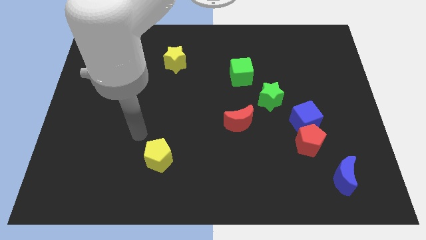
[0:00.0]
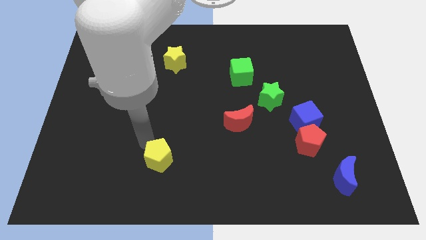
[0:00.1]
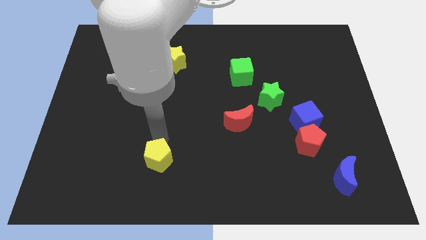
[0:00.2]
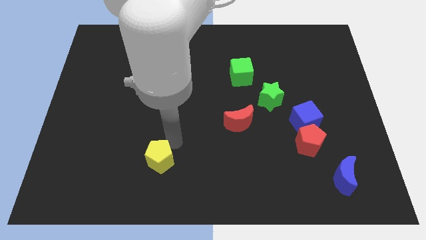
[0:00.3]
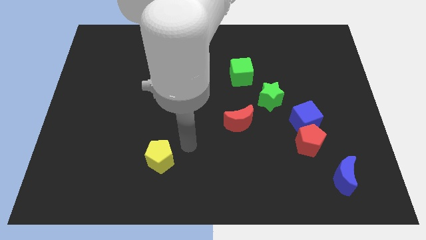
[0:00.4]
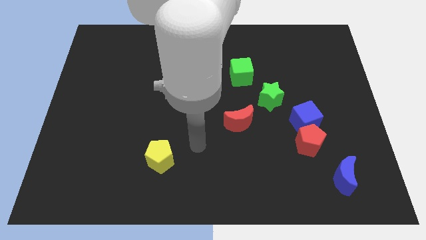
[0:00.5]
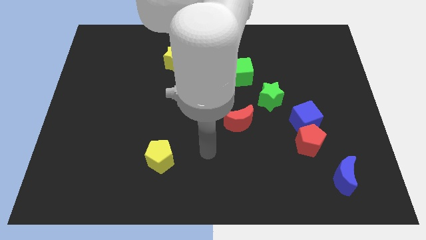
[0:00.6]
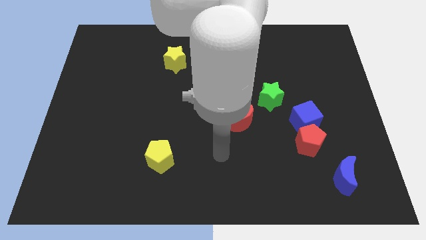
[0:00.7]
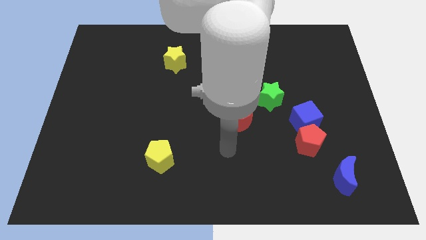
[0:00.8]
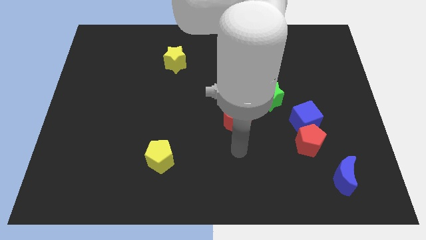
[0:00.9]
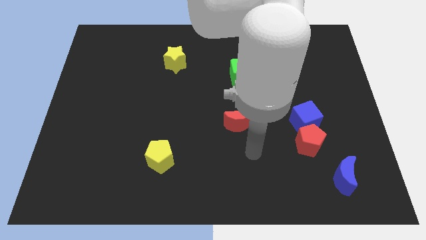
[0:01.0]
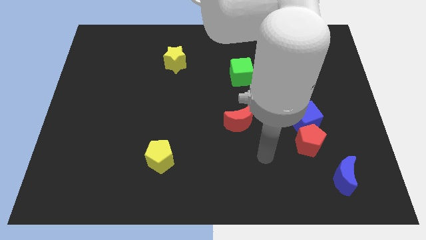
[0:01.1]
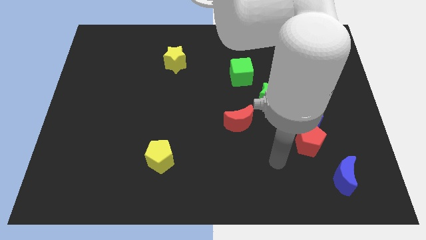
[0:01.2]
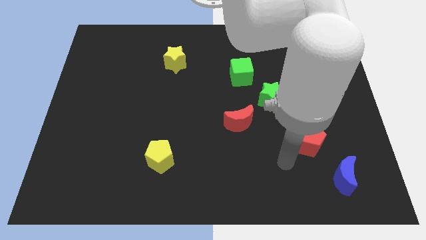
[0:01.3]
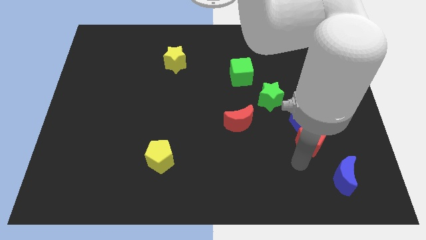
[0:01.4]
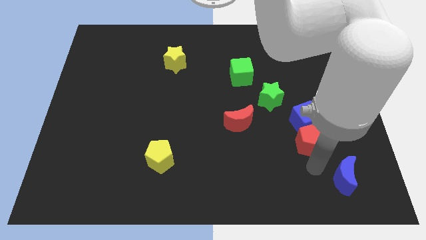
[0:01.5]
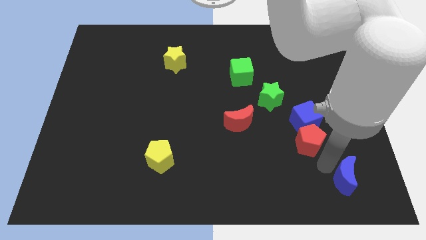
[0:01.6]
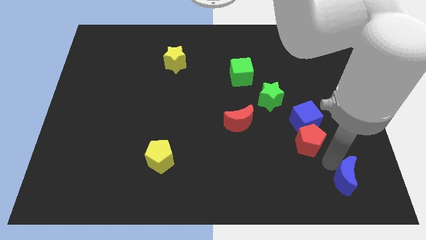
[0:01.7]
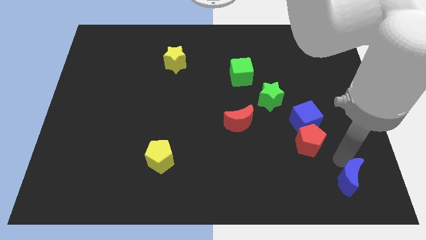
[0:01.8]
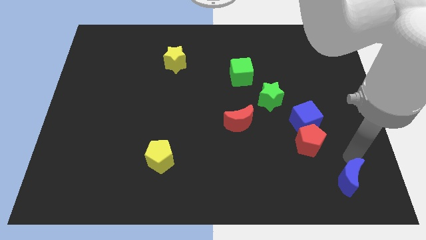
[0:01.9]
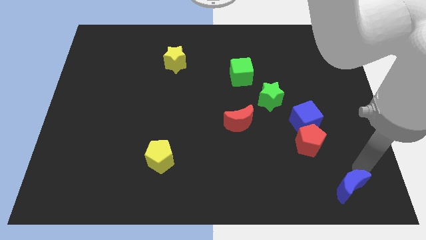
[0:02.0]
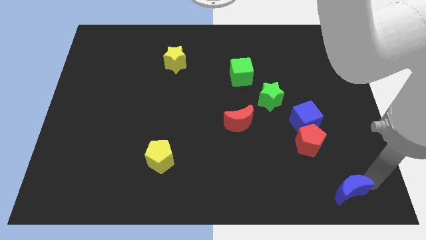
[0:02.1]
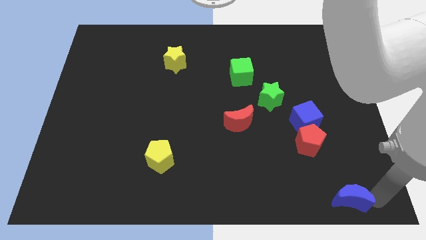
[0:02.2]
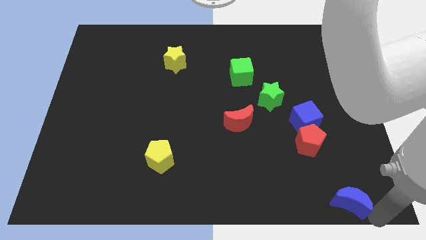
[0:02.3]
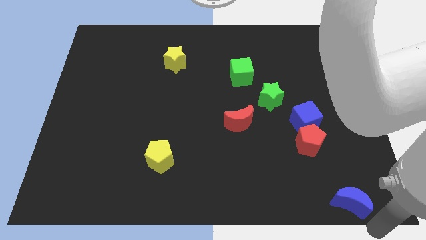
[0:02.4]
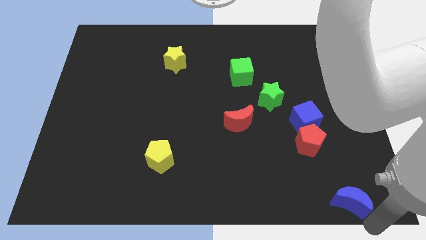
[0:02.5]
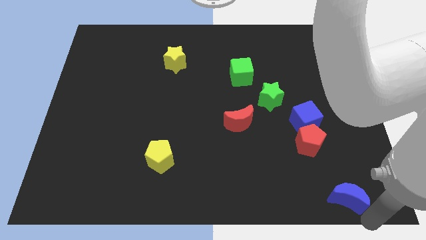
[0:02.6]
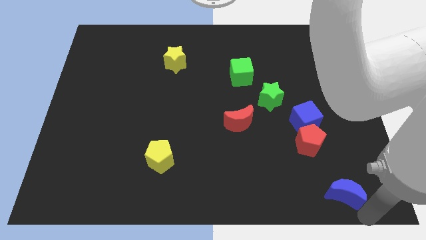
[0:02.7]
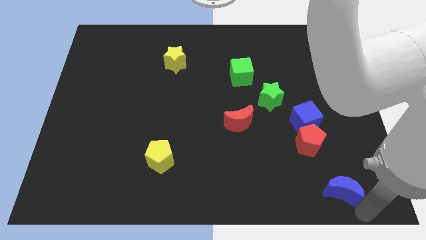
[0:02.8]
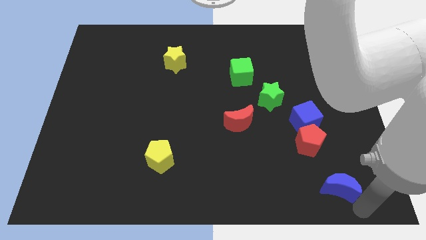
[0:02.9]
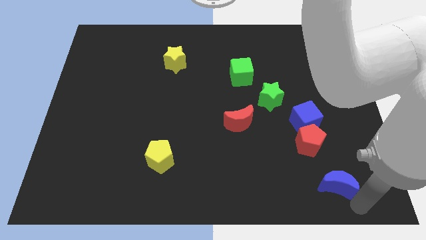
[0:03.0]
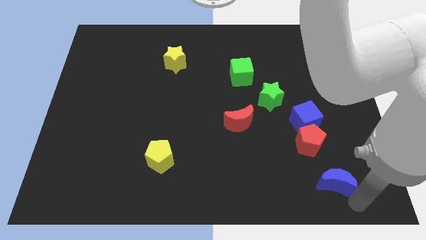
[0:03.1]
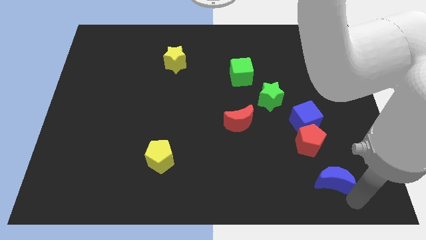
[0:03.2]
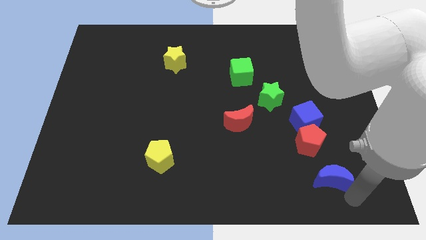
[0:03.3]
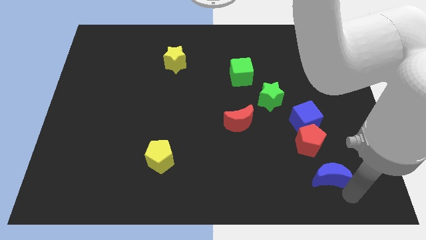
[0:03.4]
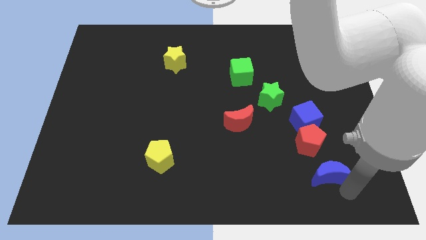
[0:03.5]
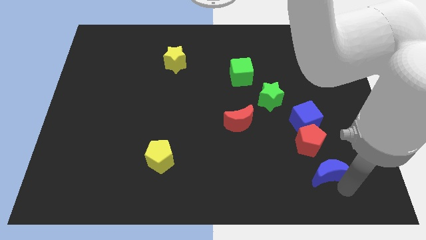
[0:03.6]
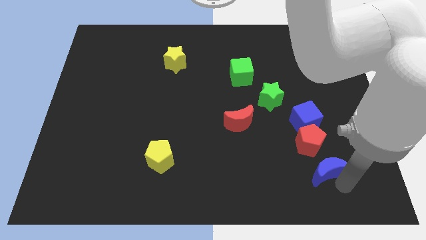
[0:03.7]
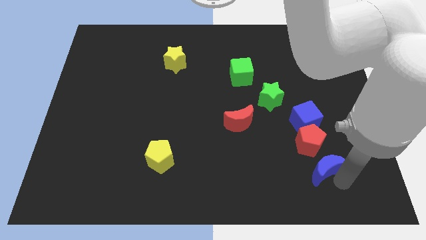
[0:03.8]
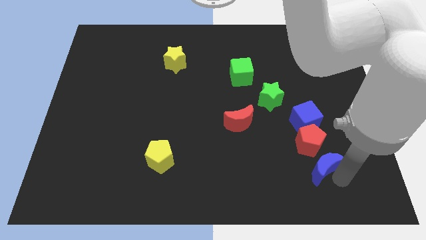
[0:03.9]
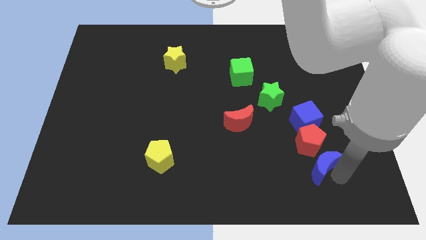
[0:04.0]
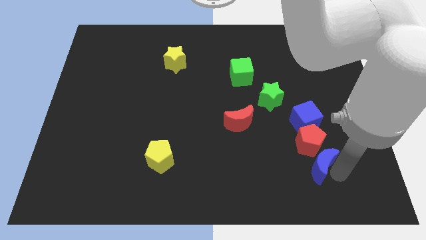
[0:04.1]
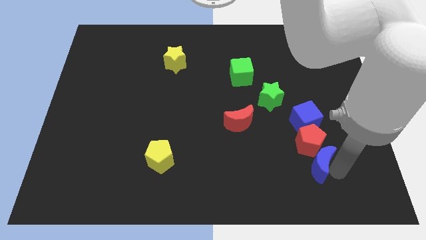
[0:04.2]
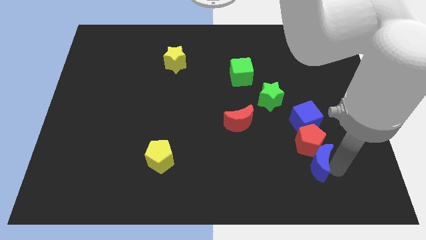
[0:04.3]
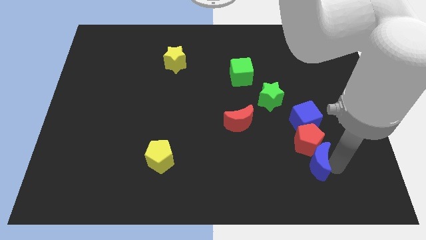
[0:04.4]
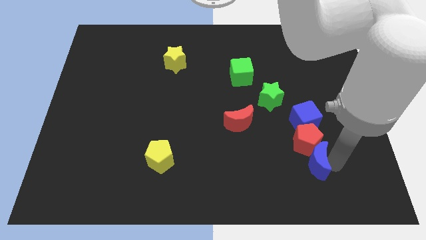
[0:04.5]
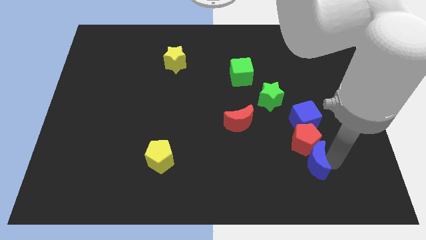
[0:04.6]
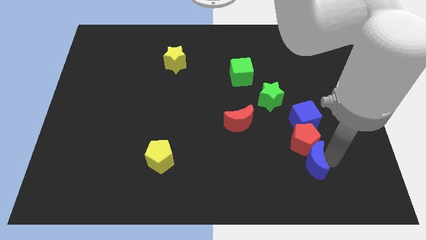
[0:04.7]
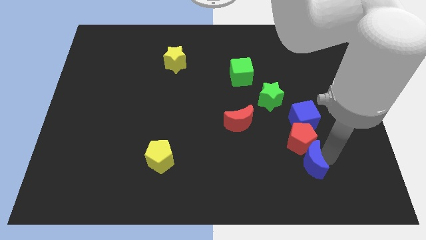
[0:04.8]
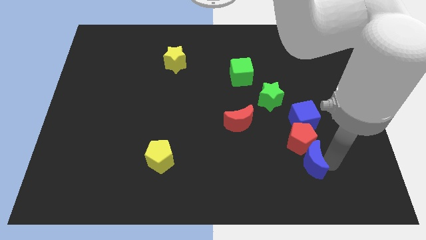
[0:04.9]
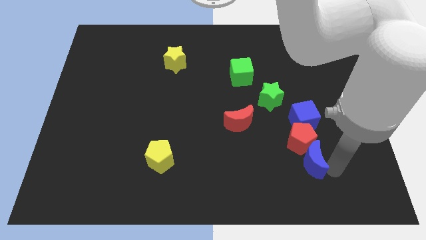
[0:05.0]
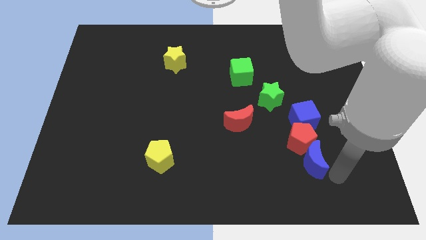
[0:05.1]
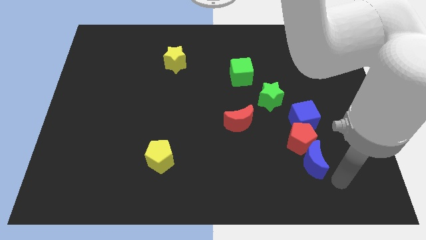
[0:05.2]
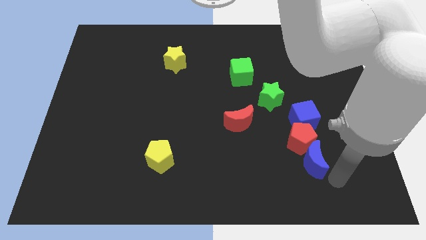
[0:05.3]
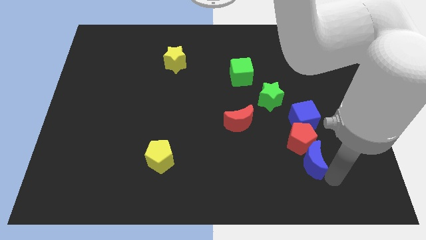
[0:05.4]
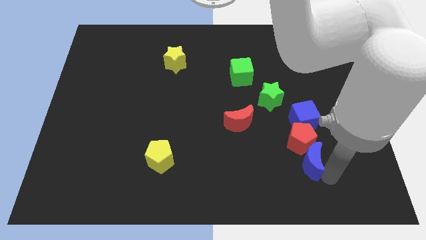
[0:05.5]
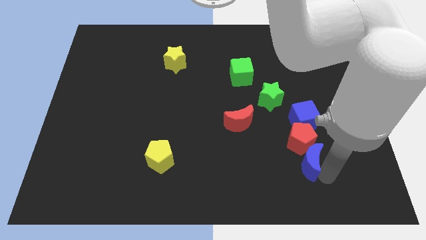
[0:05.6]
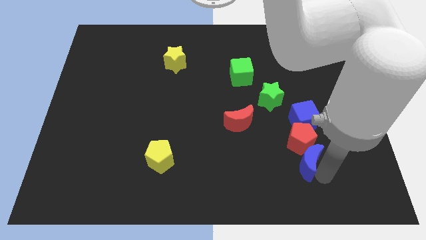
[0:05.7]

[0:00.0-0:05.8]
push the blue moon up and to the left diagonally a bit

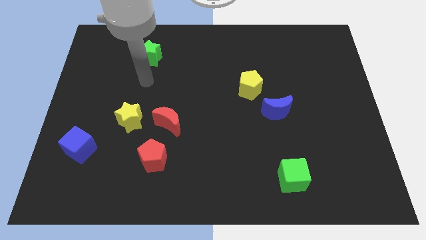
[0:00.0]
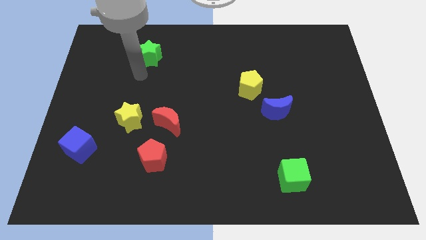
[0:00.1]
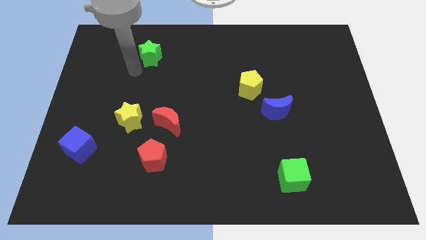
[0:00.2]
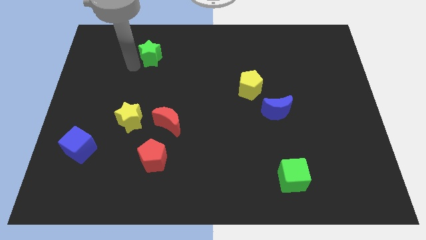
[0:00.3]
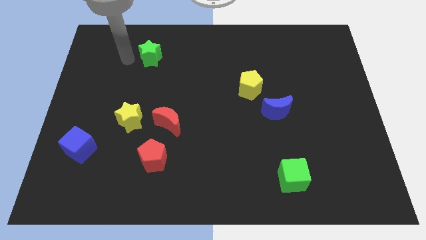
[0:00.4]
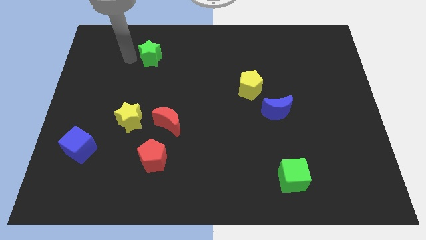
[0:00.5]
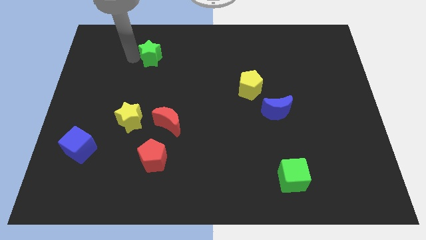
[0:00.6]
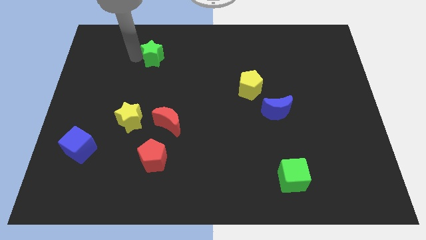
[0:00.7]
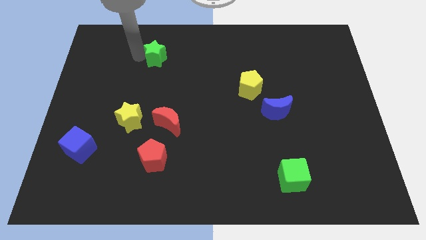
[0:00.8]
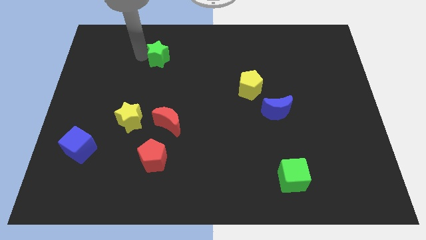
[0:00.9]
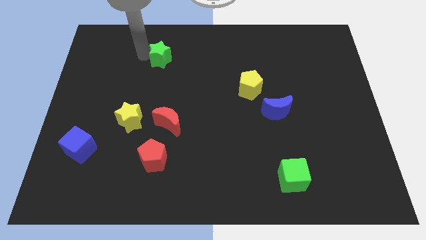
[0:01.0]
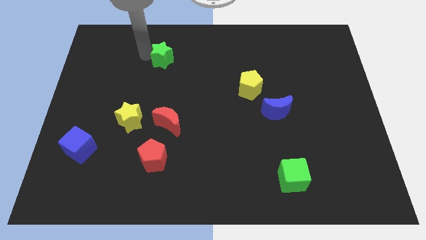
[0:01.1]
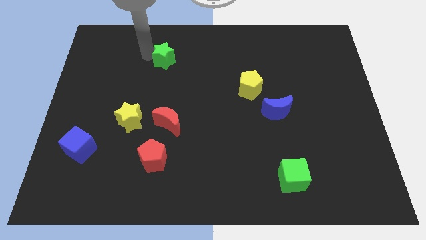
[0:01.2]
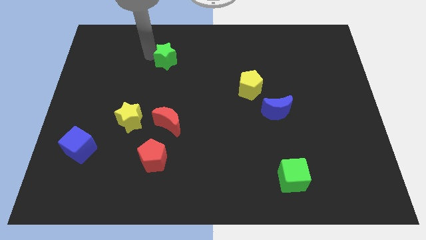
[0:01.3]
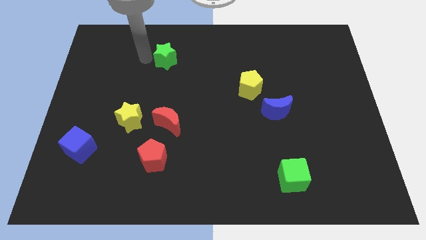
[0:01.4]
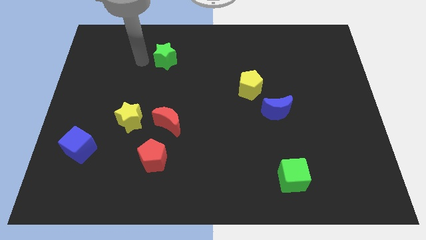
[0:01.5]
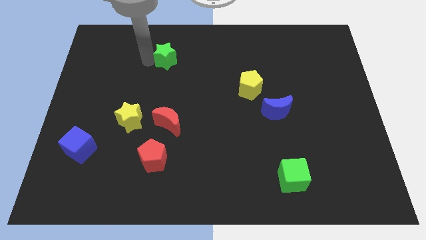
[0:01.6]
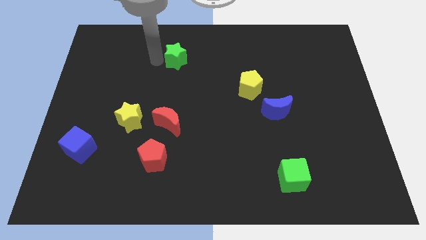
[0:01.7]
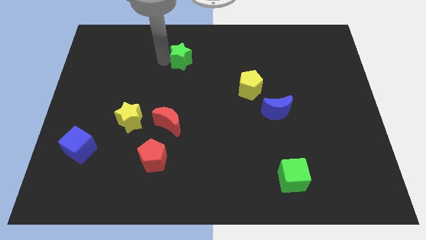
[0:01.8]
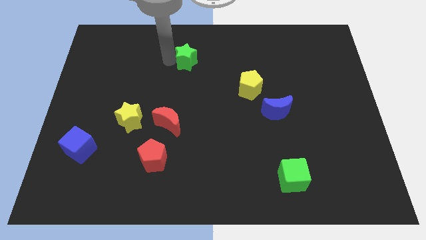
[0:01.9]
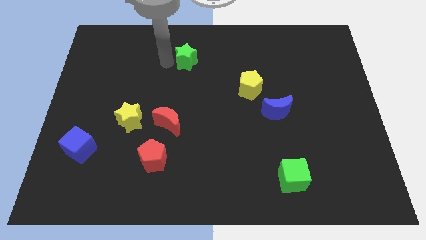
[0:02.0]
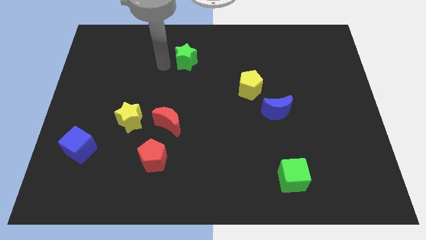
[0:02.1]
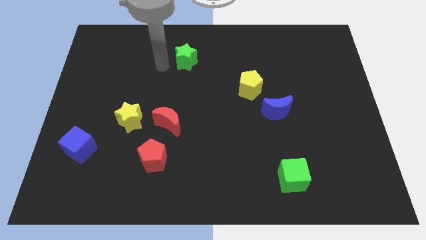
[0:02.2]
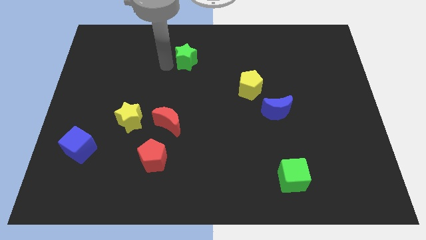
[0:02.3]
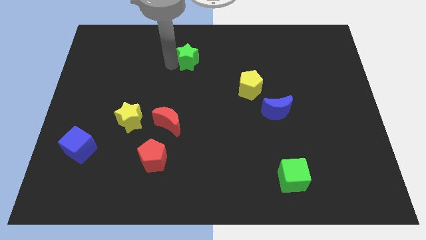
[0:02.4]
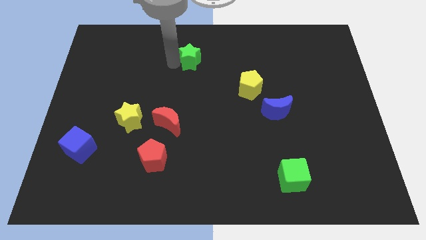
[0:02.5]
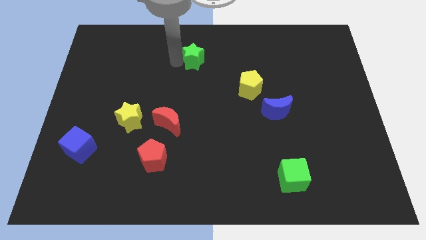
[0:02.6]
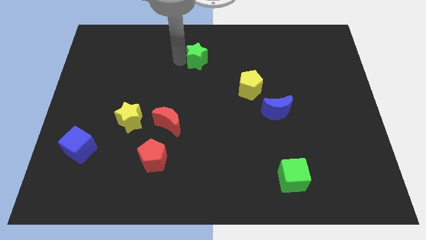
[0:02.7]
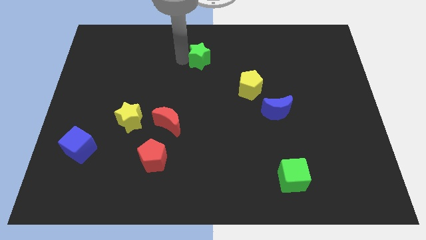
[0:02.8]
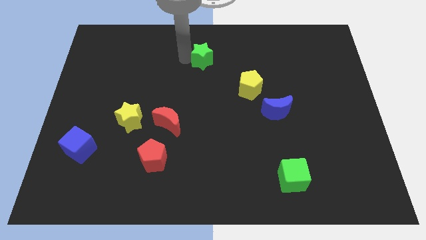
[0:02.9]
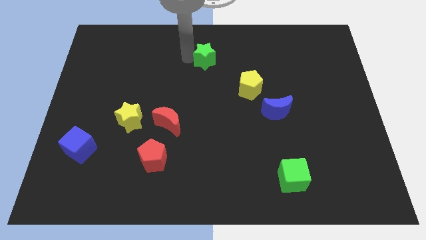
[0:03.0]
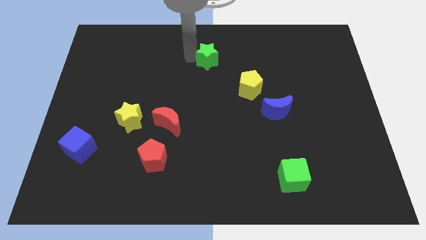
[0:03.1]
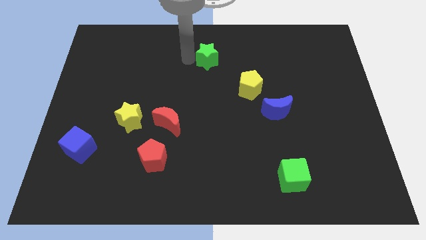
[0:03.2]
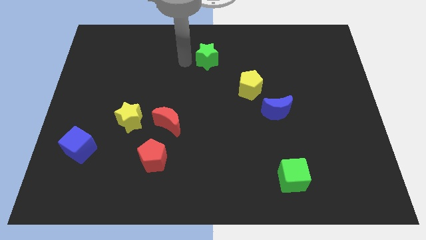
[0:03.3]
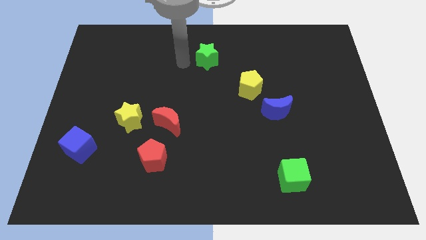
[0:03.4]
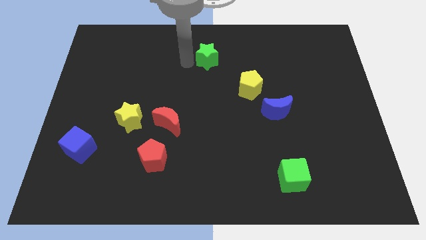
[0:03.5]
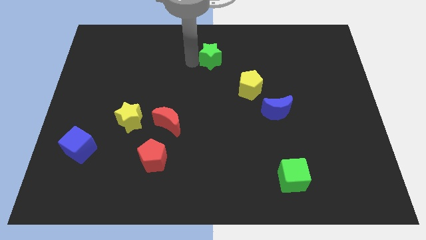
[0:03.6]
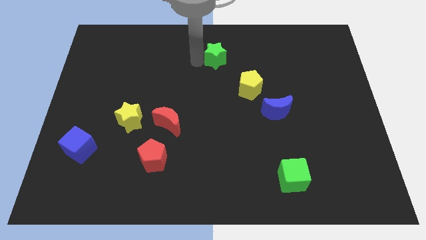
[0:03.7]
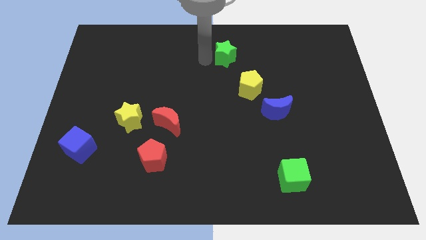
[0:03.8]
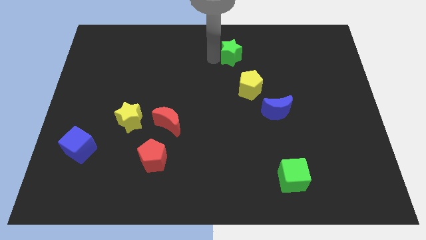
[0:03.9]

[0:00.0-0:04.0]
slide the green star right
